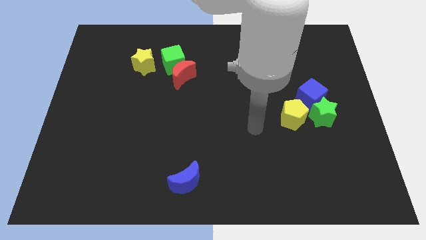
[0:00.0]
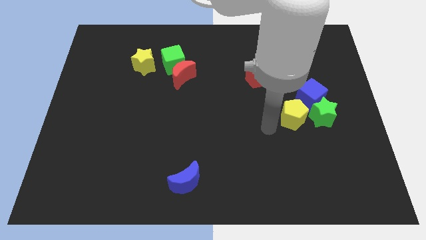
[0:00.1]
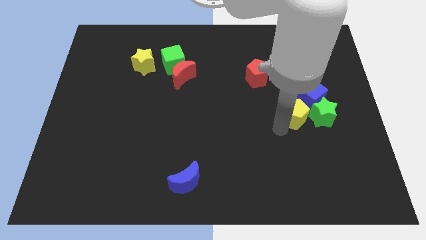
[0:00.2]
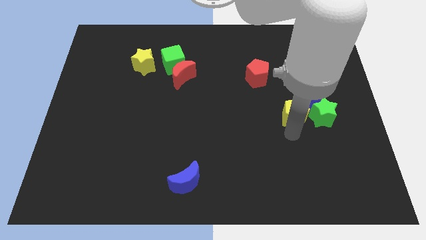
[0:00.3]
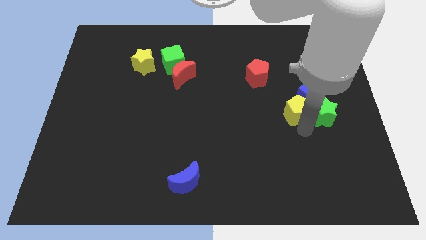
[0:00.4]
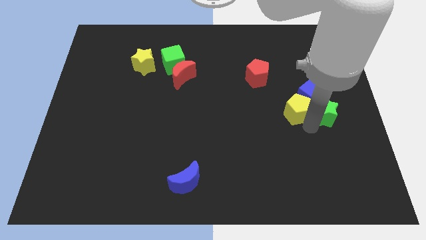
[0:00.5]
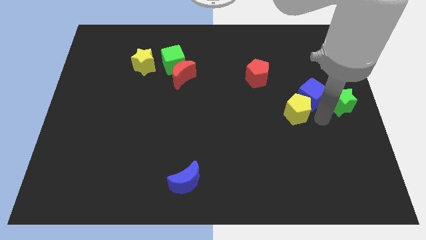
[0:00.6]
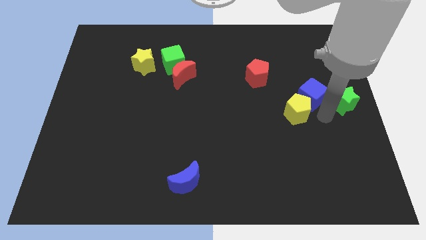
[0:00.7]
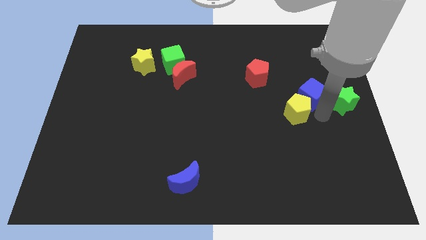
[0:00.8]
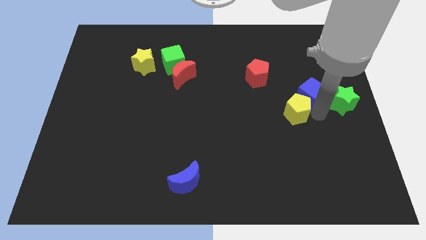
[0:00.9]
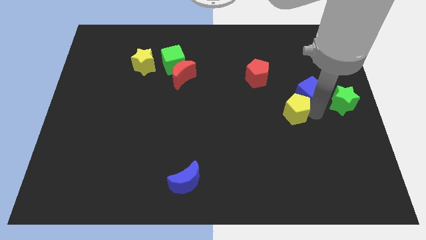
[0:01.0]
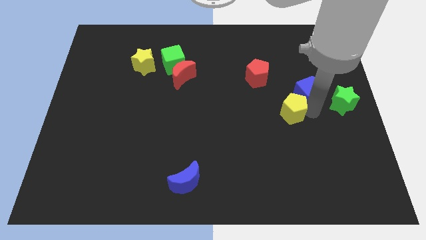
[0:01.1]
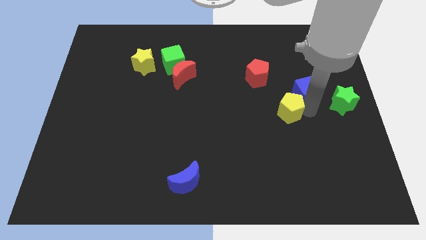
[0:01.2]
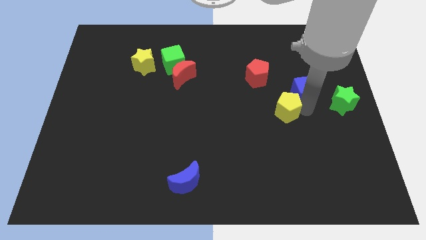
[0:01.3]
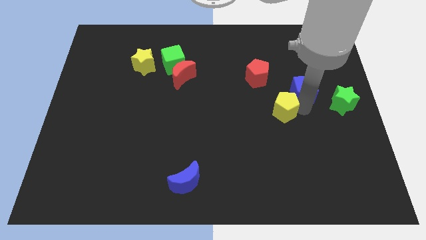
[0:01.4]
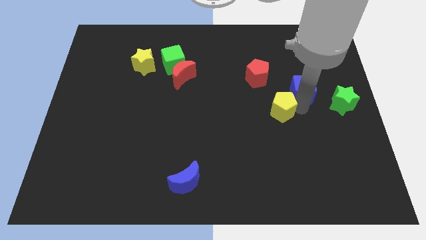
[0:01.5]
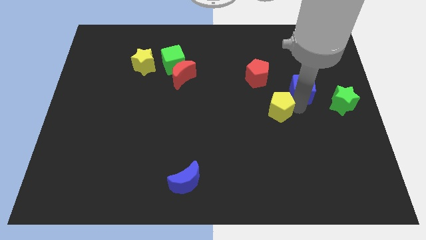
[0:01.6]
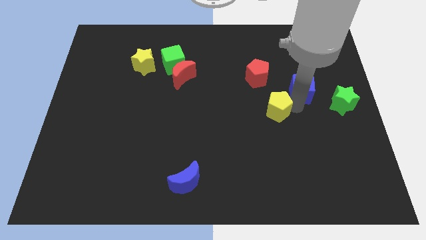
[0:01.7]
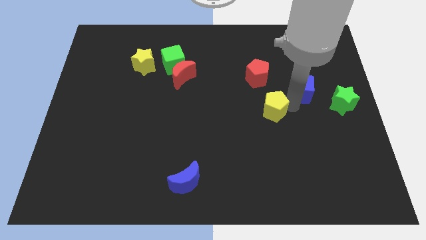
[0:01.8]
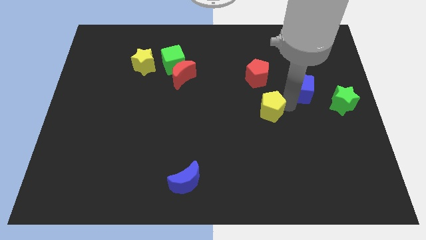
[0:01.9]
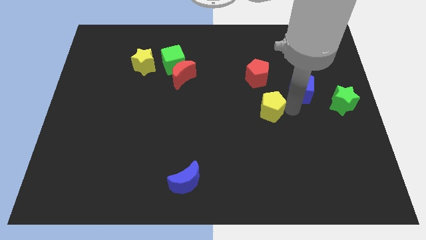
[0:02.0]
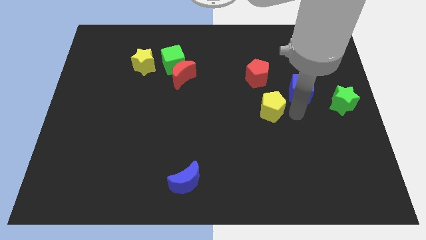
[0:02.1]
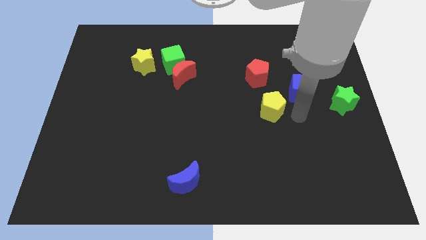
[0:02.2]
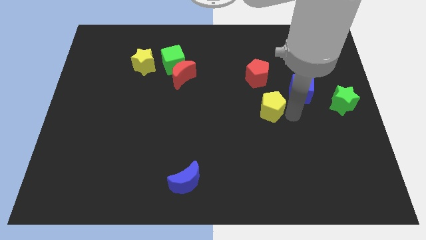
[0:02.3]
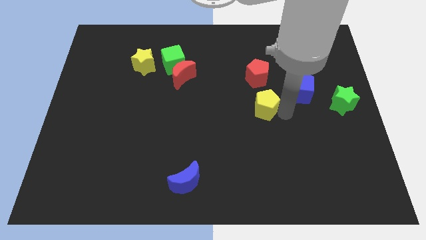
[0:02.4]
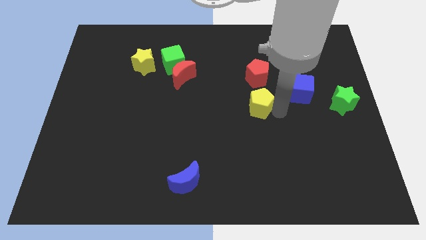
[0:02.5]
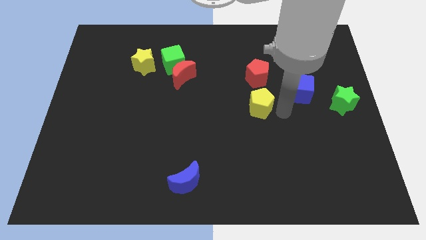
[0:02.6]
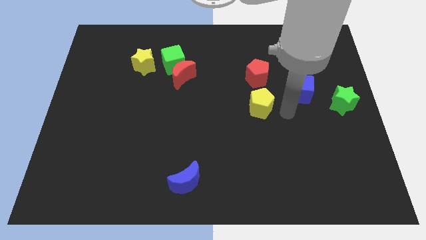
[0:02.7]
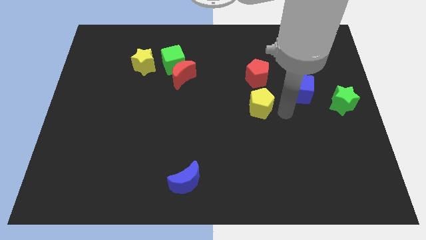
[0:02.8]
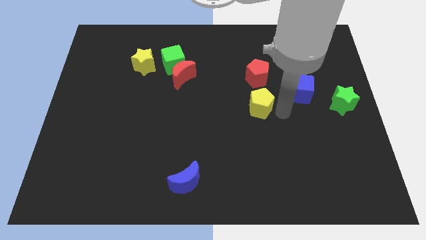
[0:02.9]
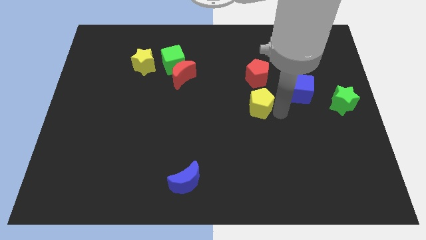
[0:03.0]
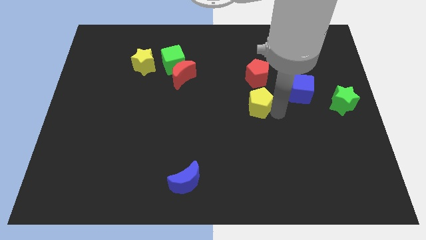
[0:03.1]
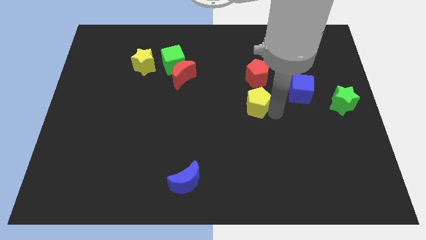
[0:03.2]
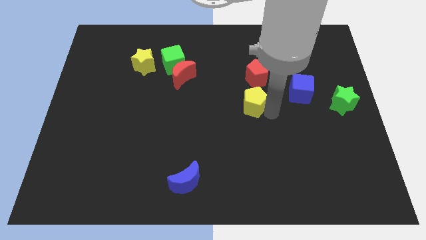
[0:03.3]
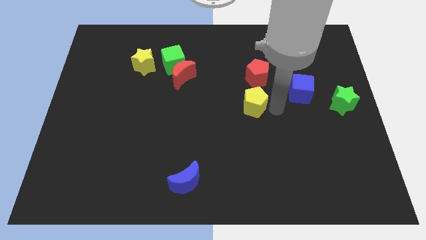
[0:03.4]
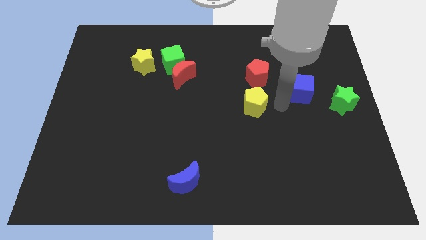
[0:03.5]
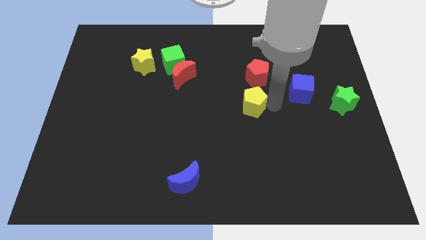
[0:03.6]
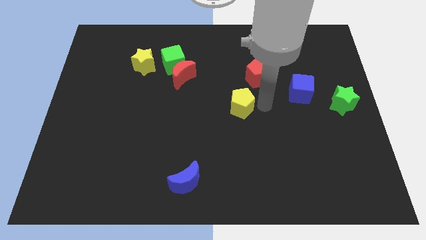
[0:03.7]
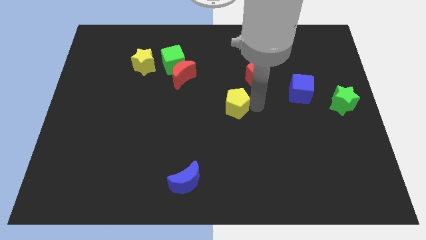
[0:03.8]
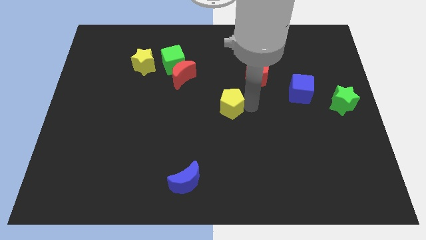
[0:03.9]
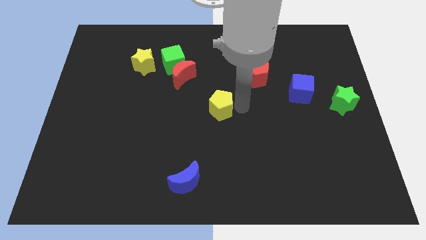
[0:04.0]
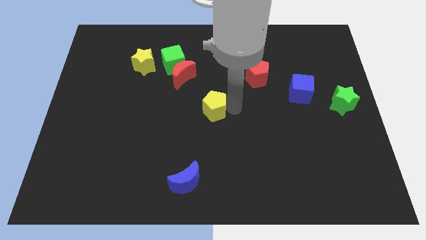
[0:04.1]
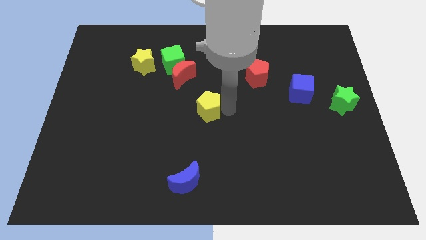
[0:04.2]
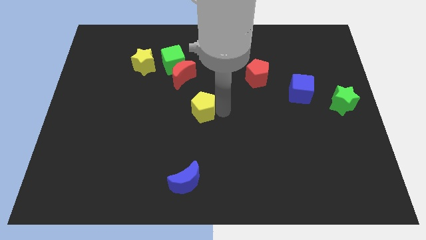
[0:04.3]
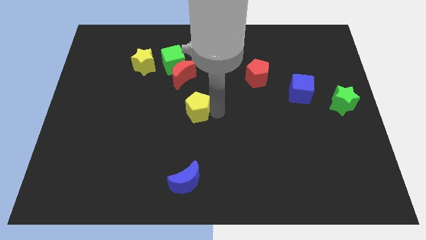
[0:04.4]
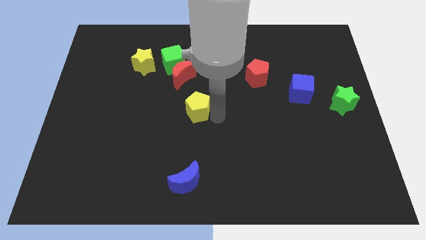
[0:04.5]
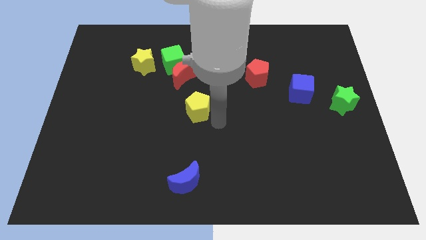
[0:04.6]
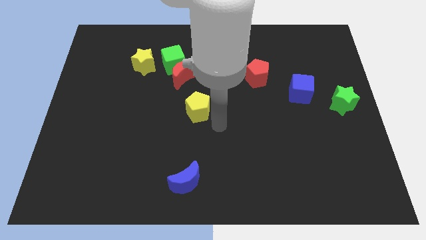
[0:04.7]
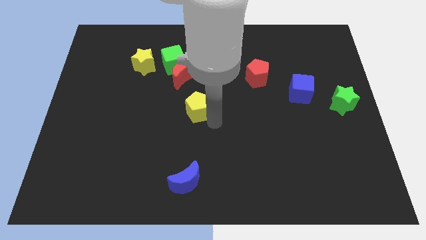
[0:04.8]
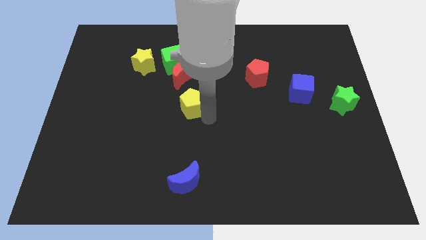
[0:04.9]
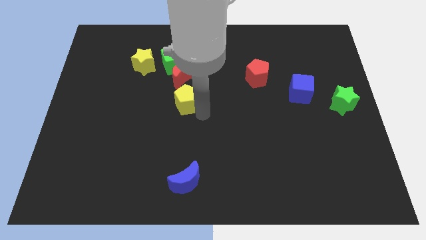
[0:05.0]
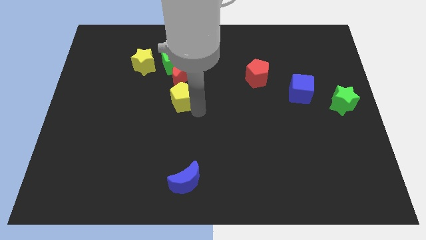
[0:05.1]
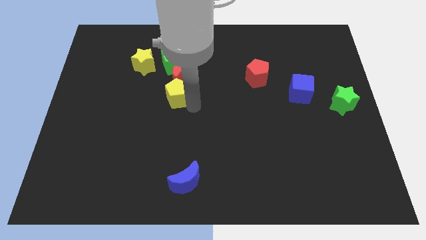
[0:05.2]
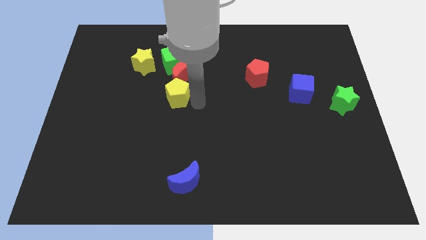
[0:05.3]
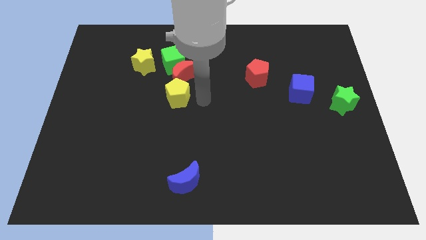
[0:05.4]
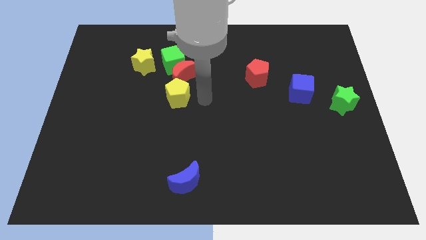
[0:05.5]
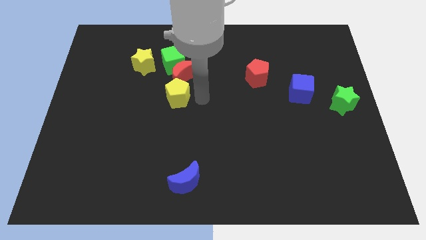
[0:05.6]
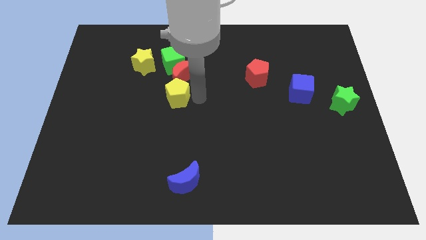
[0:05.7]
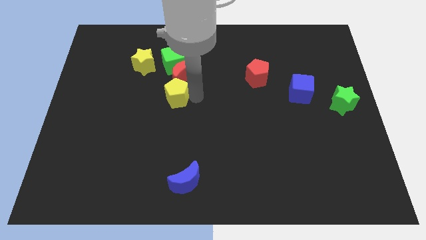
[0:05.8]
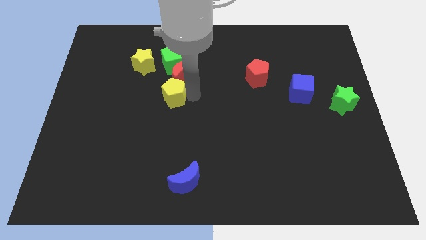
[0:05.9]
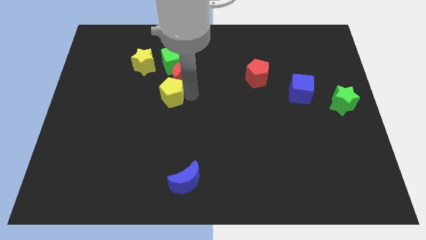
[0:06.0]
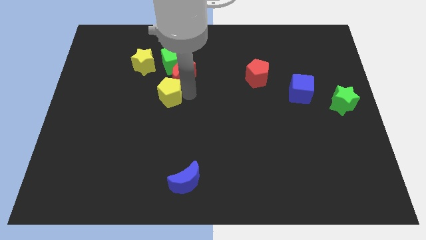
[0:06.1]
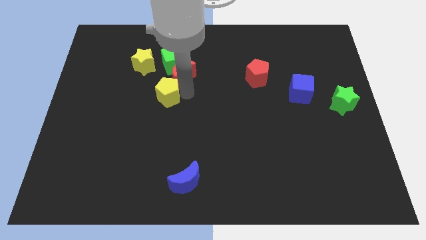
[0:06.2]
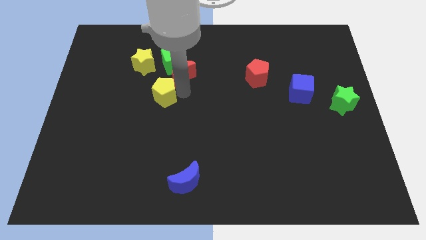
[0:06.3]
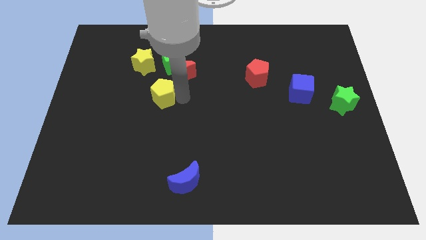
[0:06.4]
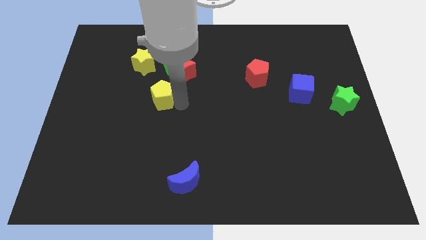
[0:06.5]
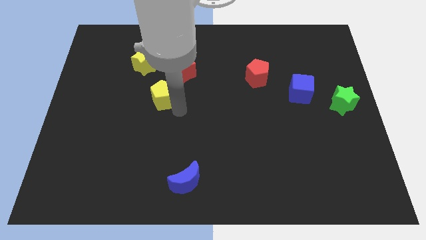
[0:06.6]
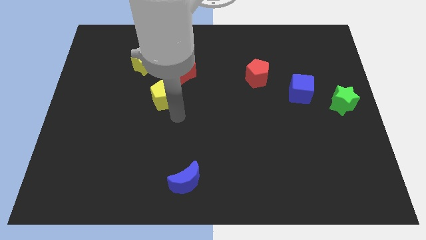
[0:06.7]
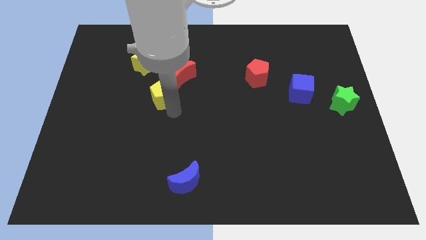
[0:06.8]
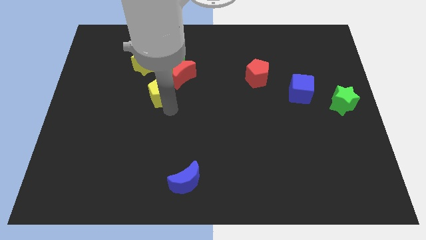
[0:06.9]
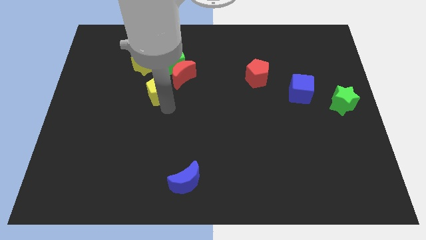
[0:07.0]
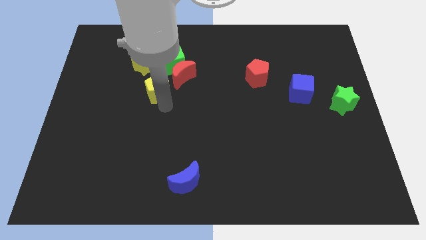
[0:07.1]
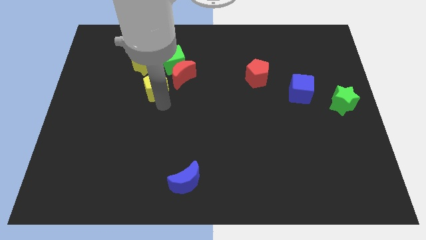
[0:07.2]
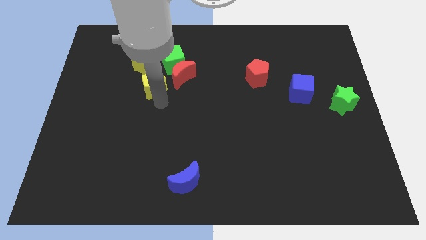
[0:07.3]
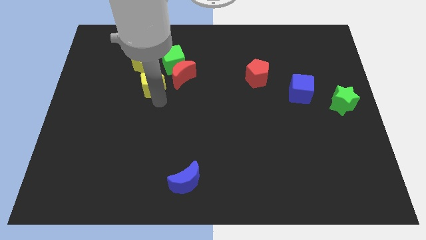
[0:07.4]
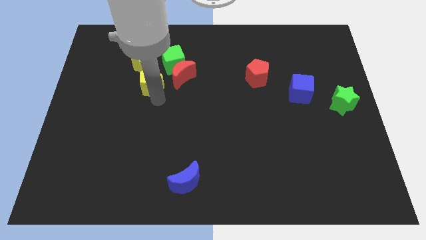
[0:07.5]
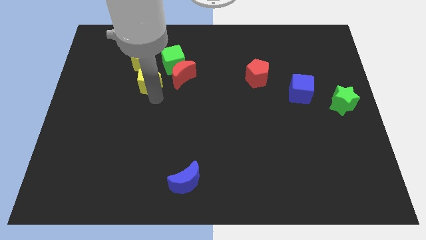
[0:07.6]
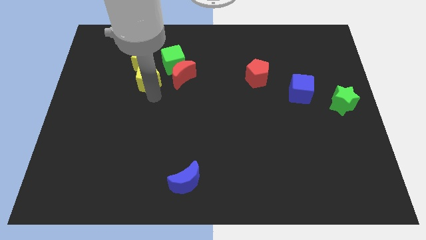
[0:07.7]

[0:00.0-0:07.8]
push the yellow pentagon close to the yellow star
